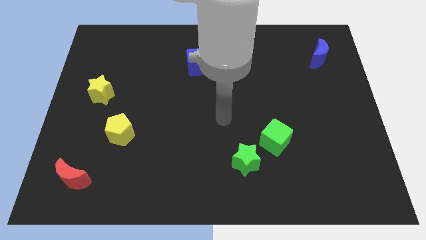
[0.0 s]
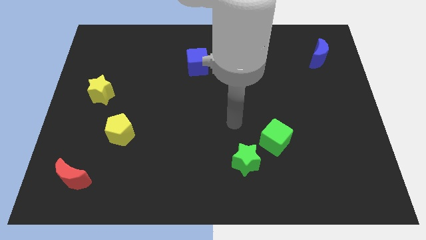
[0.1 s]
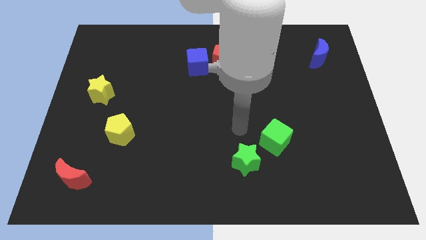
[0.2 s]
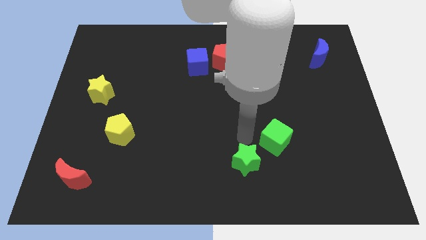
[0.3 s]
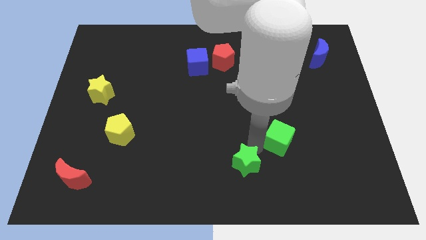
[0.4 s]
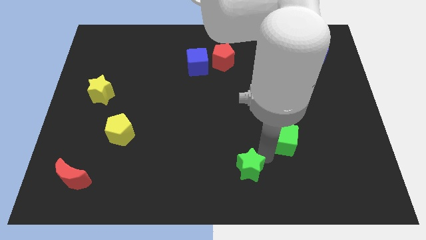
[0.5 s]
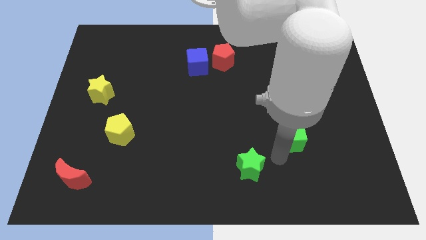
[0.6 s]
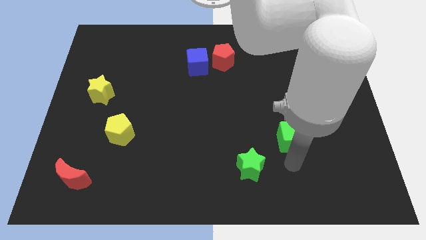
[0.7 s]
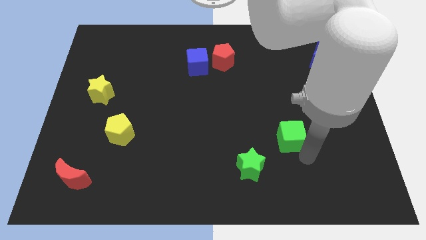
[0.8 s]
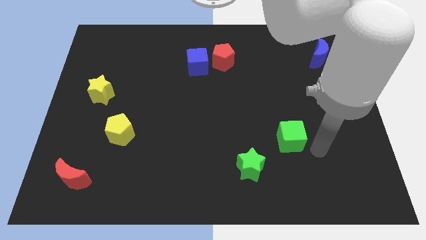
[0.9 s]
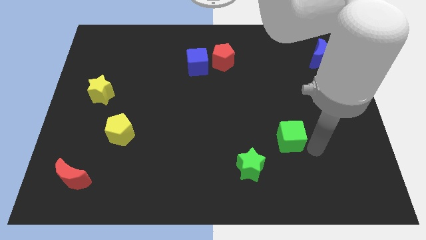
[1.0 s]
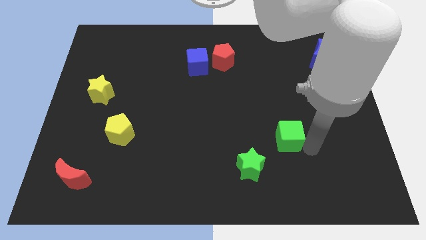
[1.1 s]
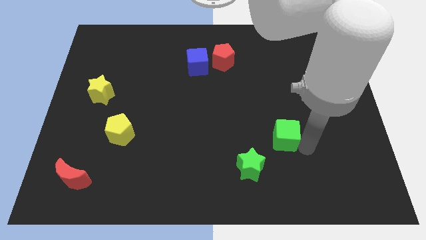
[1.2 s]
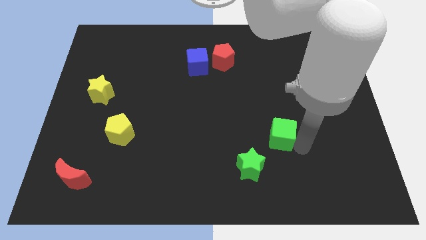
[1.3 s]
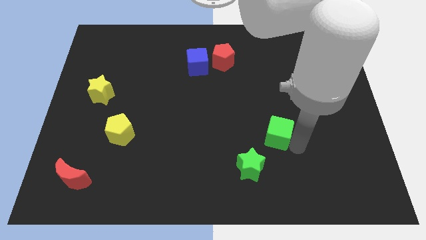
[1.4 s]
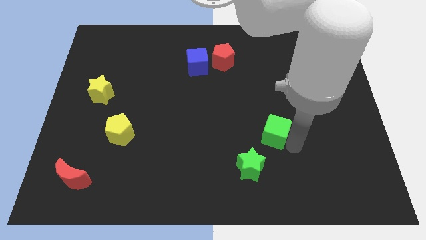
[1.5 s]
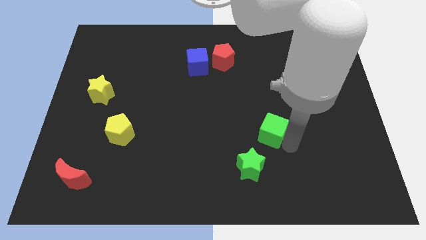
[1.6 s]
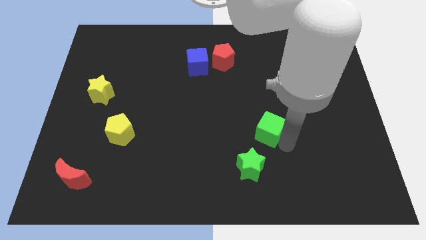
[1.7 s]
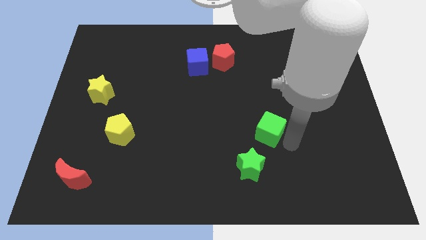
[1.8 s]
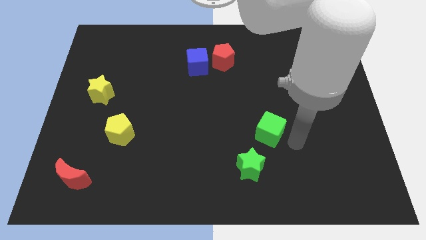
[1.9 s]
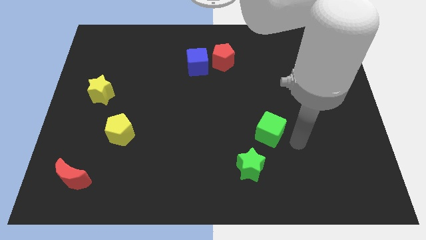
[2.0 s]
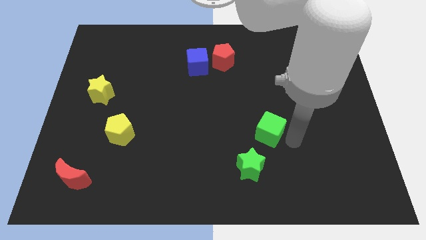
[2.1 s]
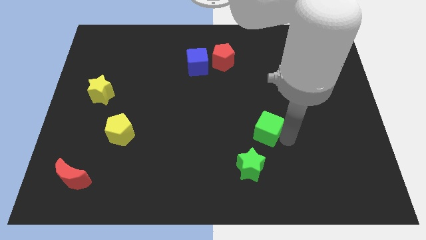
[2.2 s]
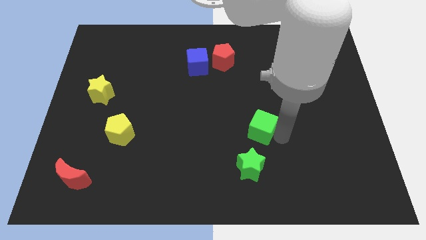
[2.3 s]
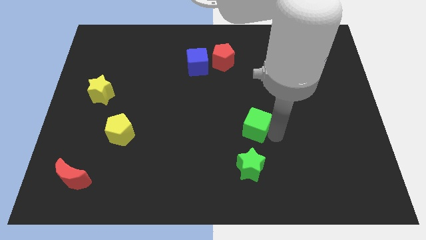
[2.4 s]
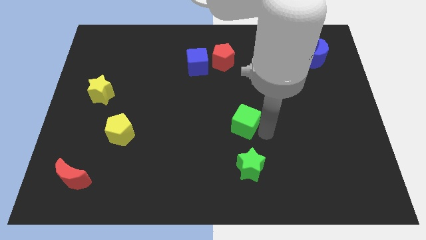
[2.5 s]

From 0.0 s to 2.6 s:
slightly slide the green cube diagonally up and left

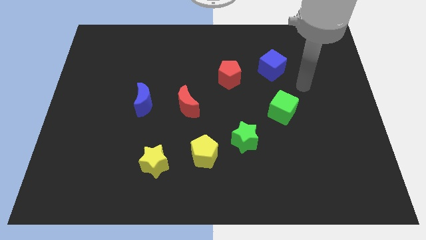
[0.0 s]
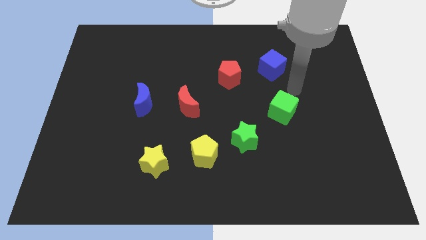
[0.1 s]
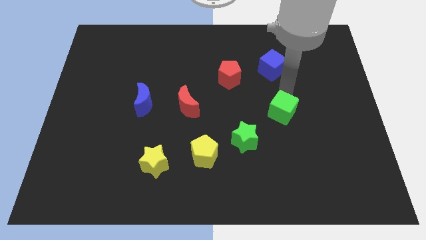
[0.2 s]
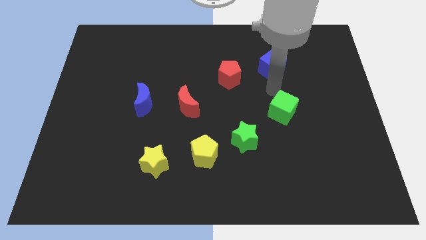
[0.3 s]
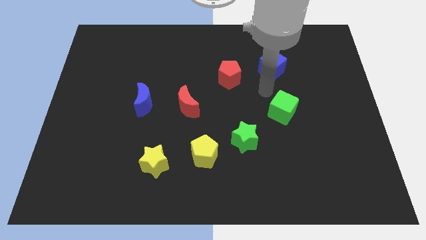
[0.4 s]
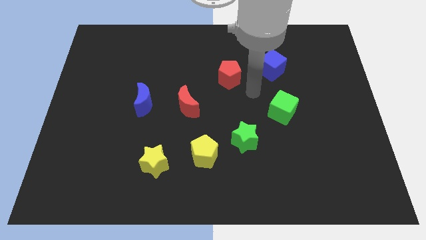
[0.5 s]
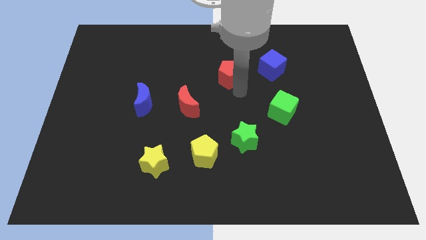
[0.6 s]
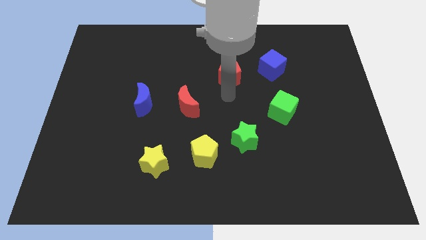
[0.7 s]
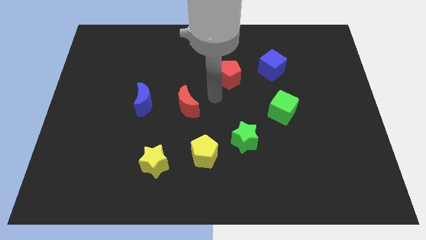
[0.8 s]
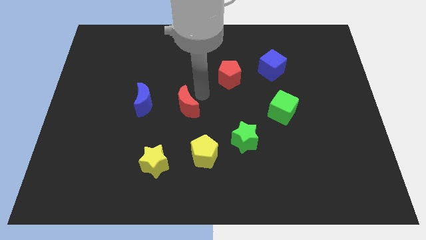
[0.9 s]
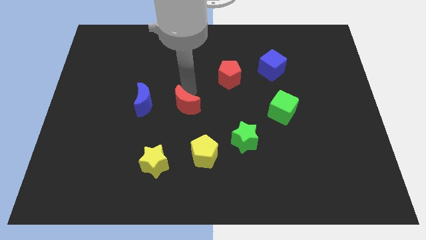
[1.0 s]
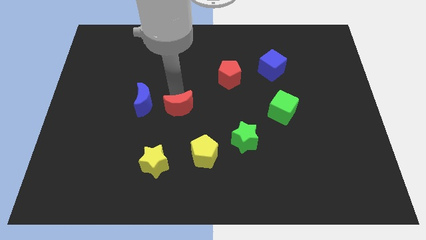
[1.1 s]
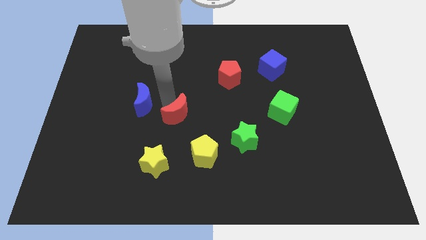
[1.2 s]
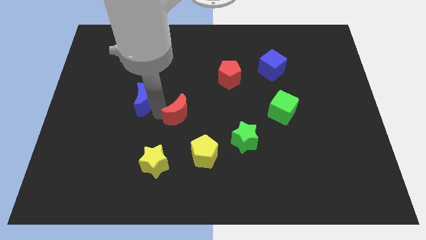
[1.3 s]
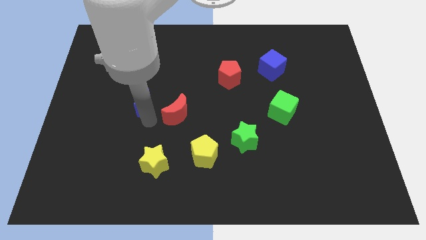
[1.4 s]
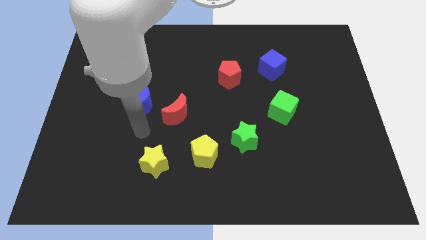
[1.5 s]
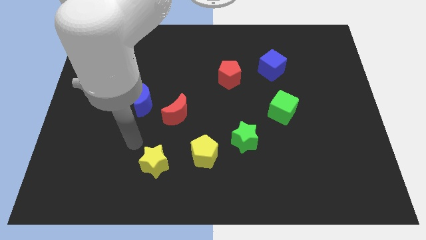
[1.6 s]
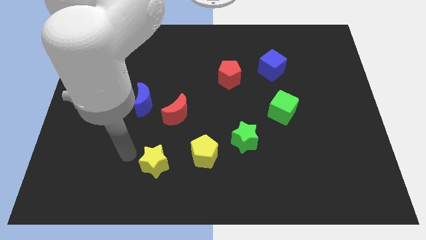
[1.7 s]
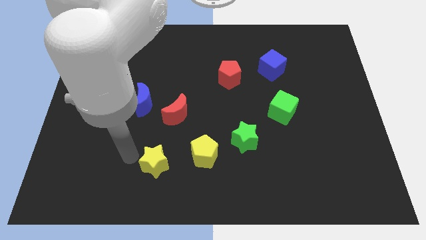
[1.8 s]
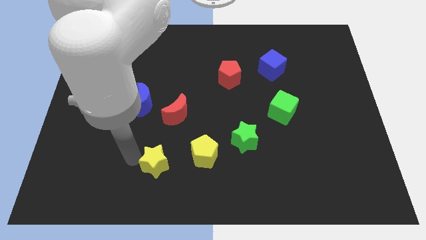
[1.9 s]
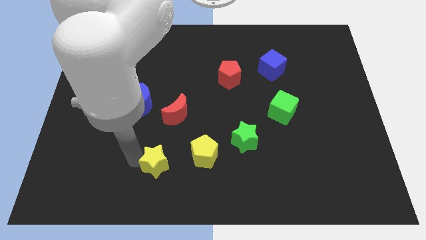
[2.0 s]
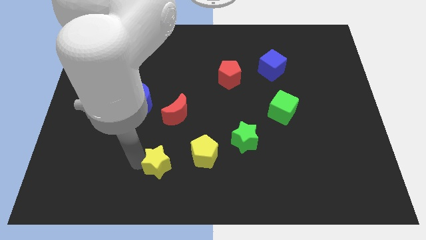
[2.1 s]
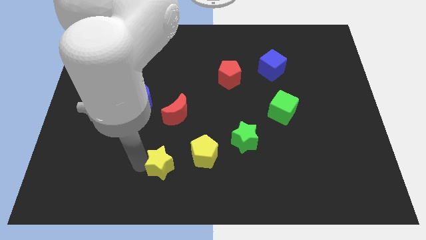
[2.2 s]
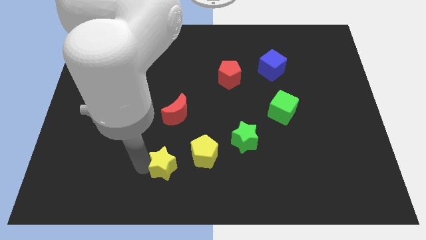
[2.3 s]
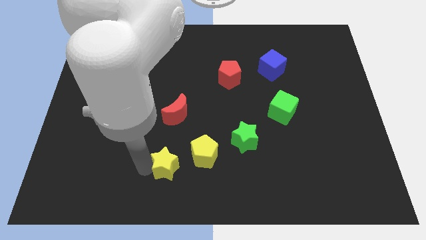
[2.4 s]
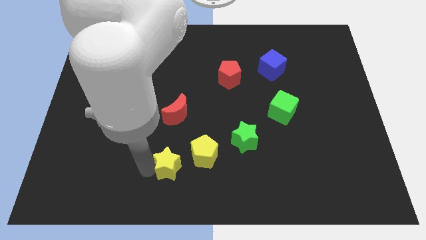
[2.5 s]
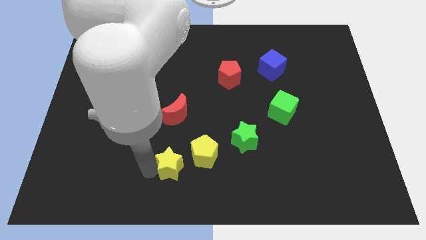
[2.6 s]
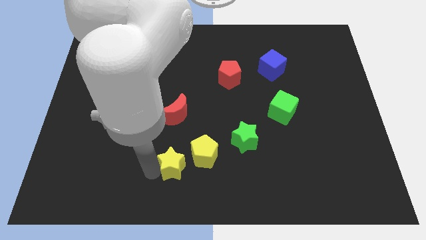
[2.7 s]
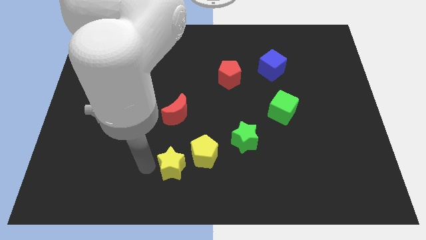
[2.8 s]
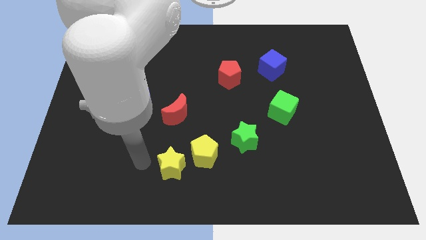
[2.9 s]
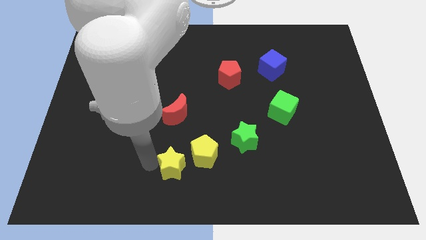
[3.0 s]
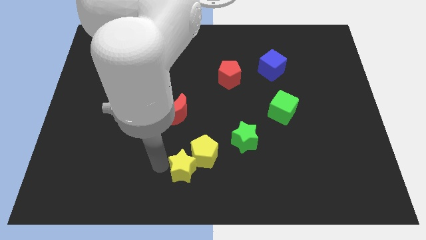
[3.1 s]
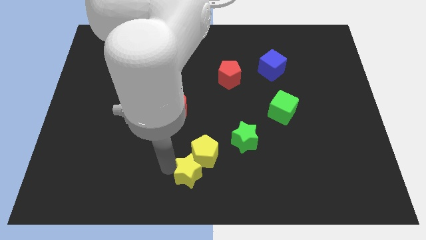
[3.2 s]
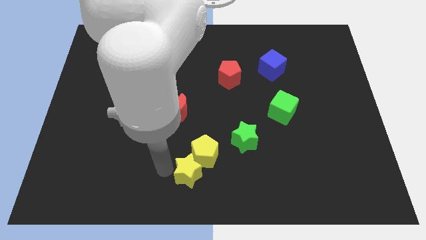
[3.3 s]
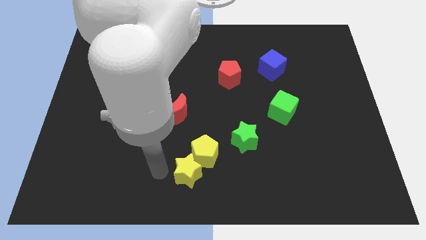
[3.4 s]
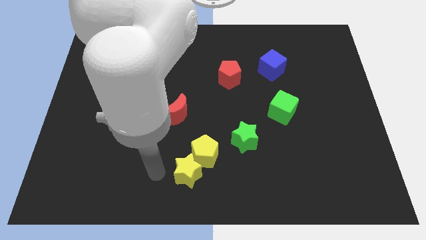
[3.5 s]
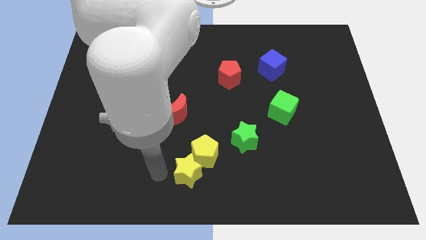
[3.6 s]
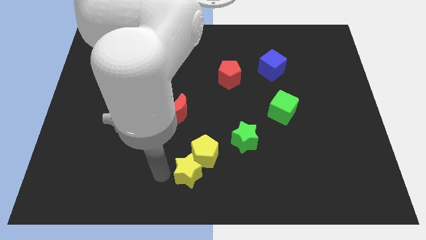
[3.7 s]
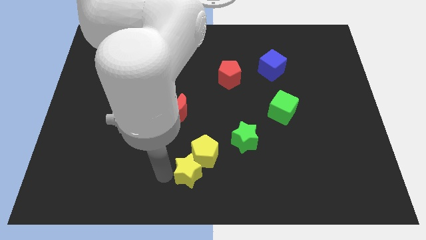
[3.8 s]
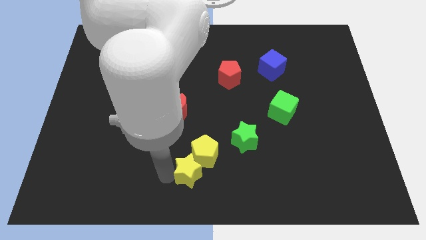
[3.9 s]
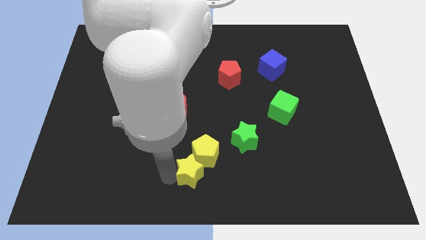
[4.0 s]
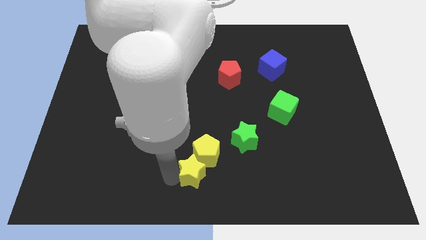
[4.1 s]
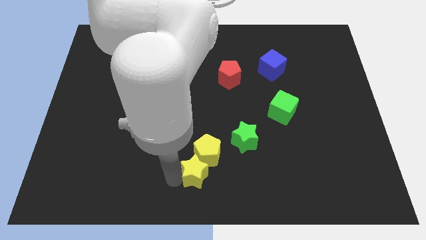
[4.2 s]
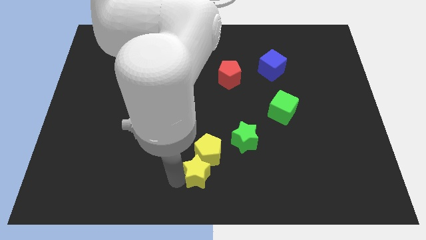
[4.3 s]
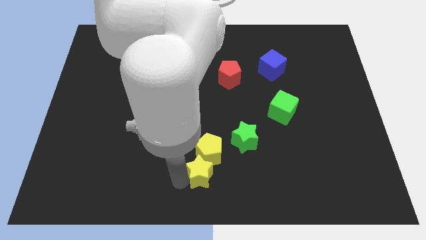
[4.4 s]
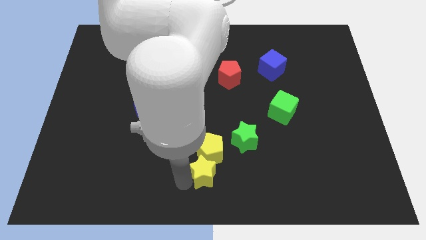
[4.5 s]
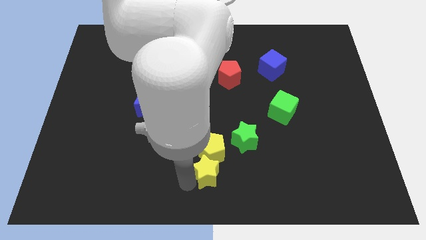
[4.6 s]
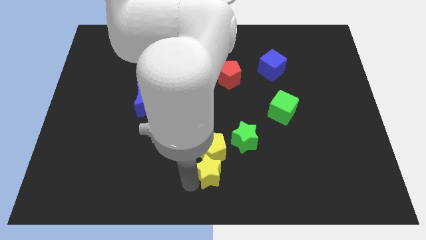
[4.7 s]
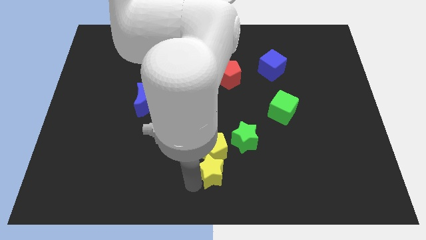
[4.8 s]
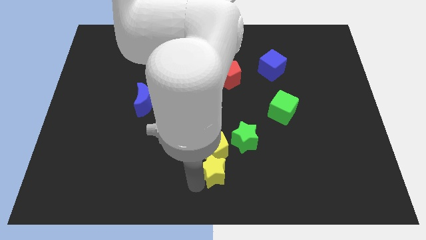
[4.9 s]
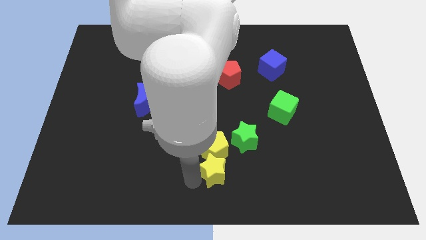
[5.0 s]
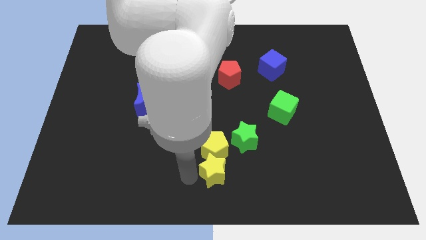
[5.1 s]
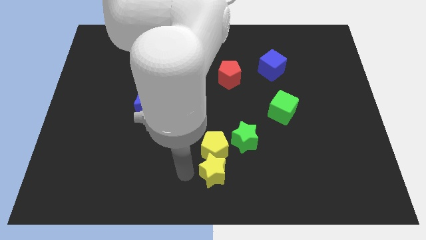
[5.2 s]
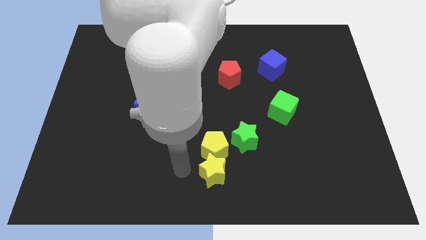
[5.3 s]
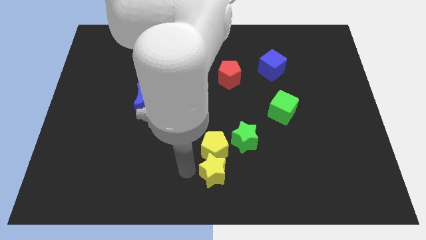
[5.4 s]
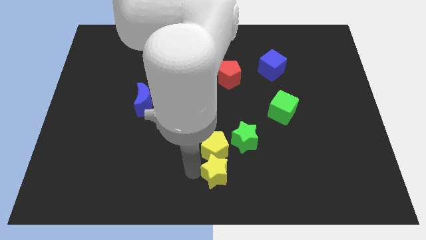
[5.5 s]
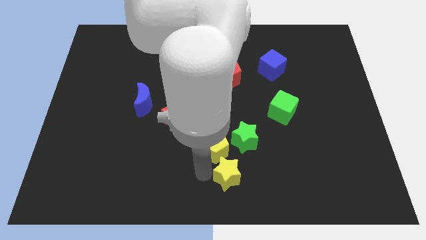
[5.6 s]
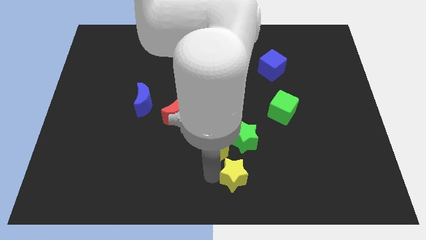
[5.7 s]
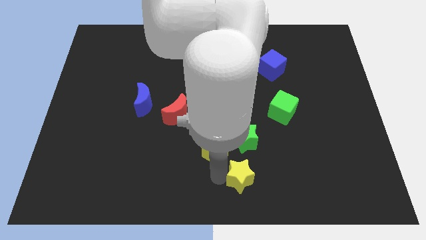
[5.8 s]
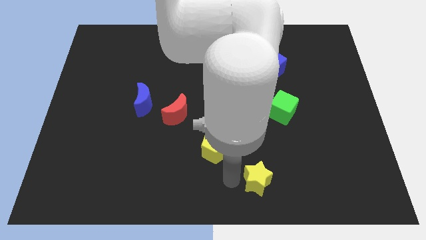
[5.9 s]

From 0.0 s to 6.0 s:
slide the yellow star right
